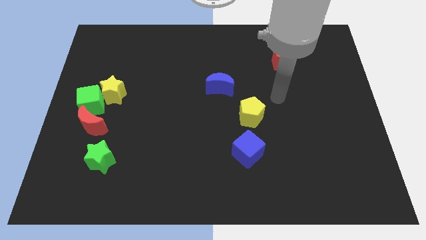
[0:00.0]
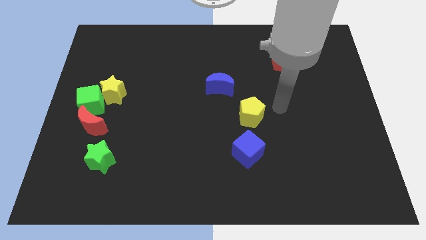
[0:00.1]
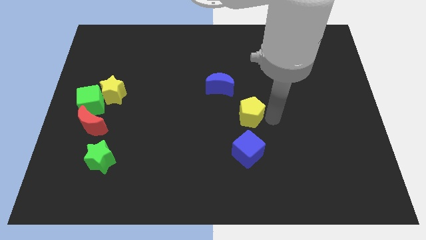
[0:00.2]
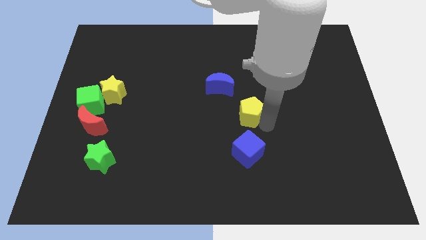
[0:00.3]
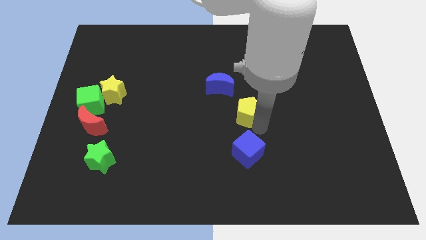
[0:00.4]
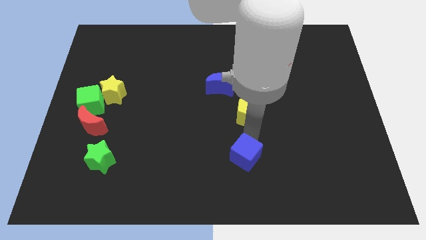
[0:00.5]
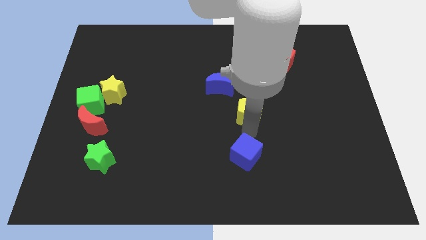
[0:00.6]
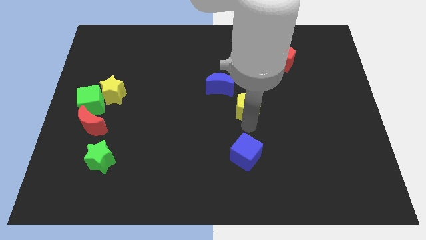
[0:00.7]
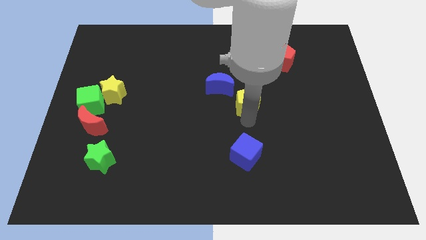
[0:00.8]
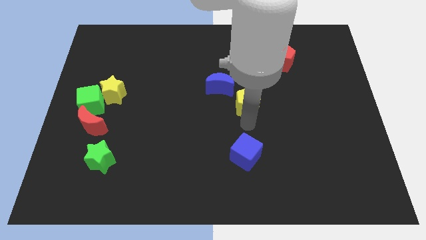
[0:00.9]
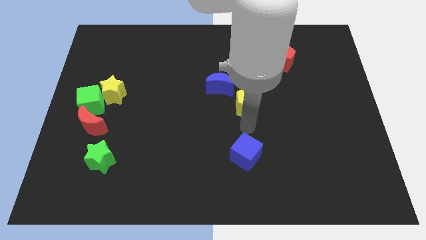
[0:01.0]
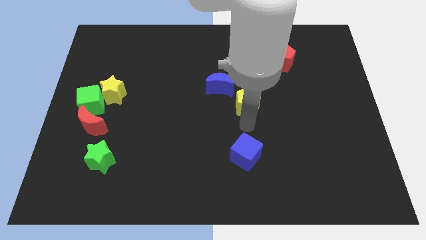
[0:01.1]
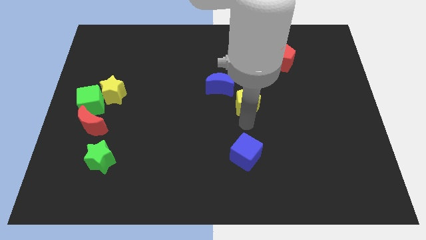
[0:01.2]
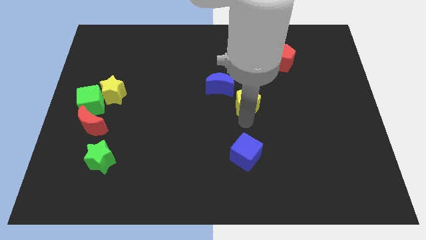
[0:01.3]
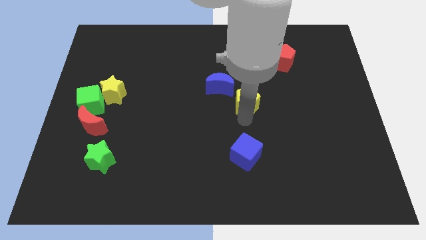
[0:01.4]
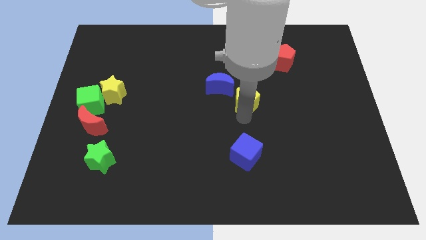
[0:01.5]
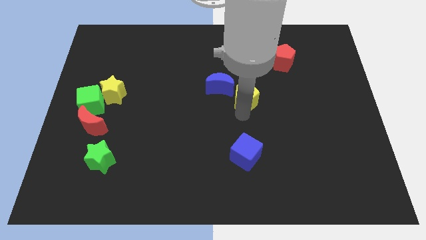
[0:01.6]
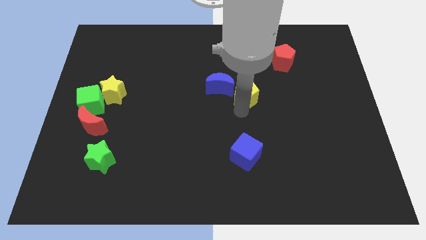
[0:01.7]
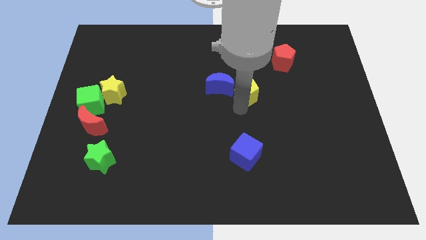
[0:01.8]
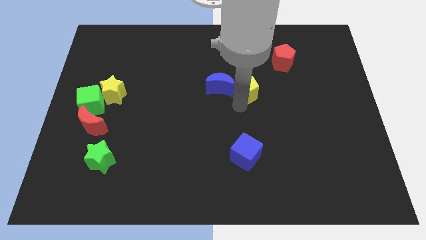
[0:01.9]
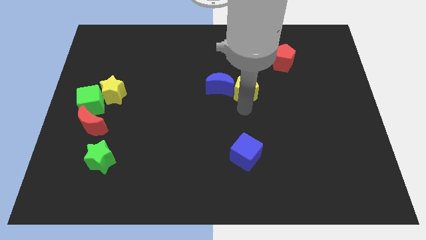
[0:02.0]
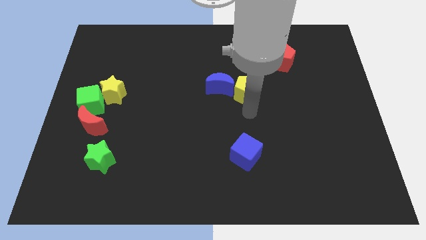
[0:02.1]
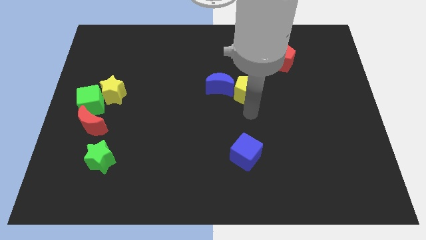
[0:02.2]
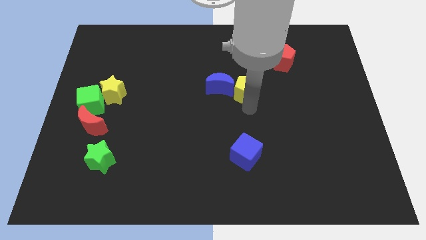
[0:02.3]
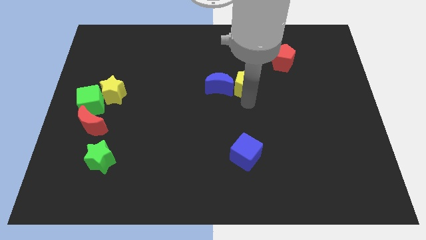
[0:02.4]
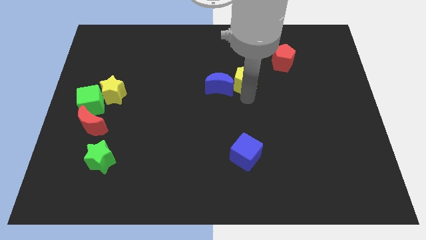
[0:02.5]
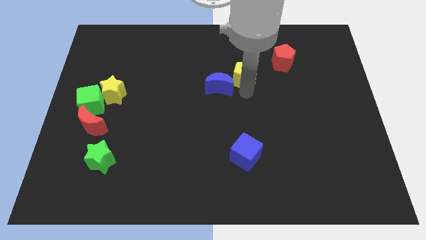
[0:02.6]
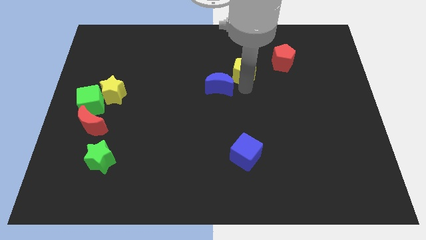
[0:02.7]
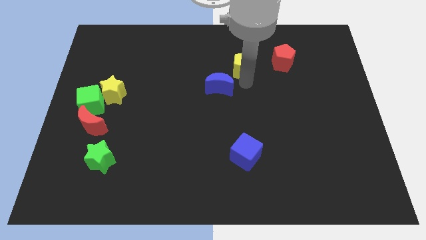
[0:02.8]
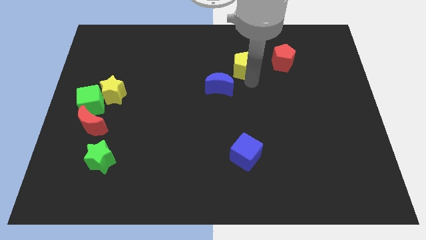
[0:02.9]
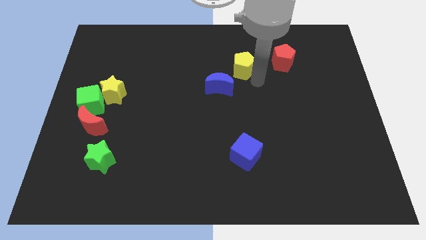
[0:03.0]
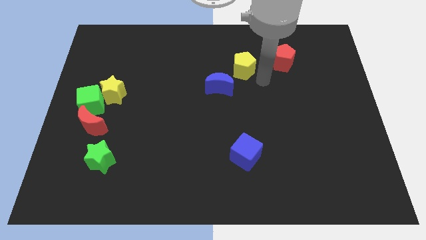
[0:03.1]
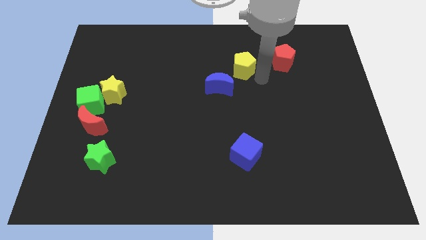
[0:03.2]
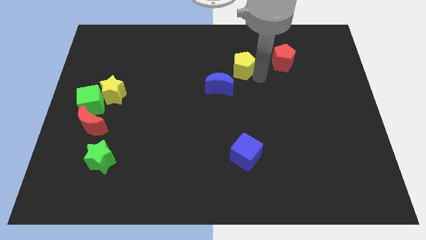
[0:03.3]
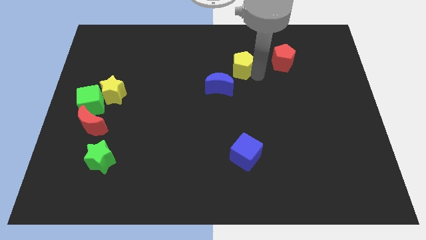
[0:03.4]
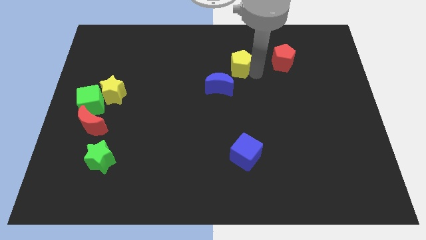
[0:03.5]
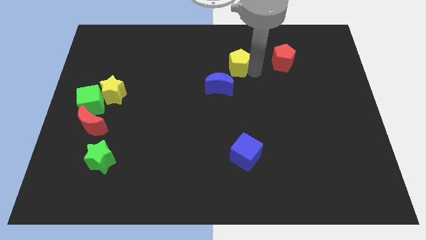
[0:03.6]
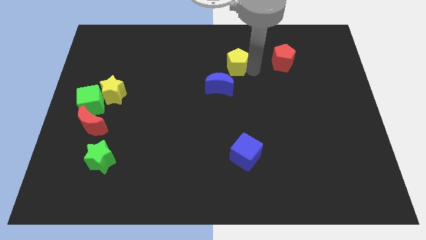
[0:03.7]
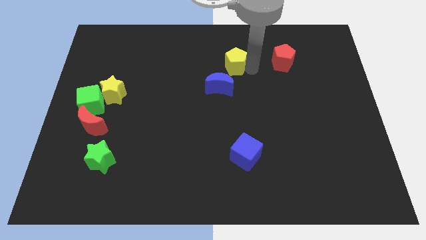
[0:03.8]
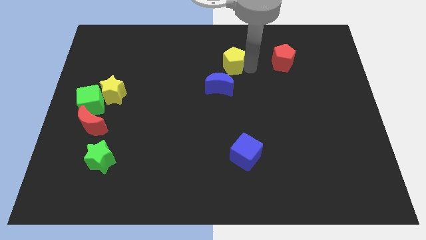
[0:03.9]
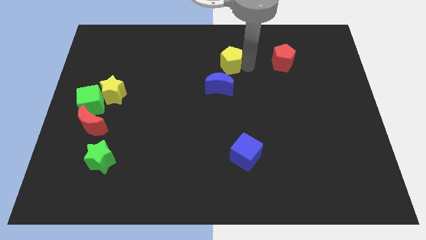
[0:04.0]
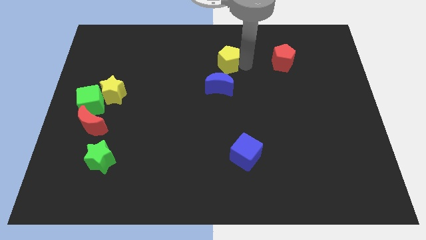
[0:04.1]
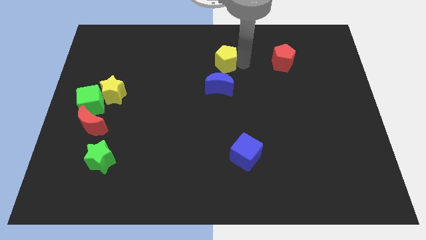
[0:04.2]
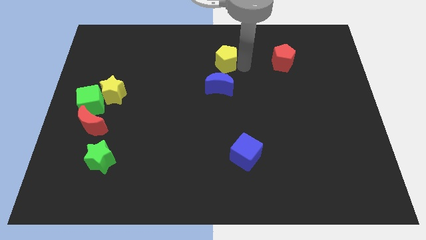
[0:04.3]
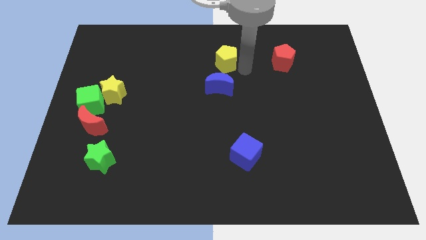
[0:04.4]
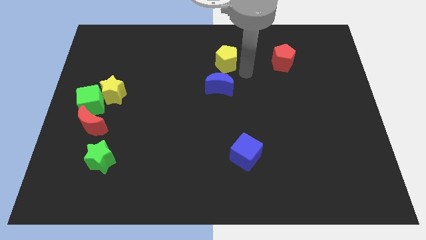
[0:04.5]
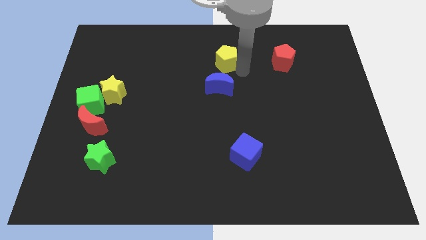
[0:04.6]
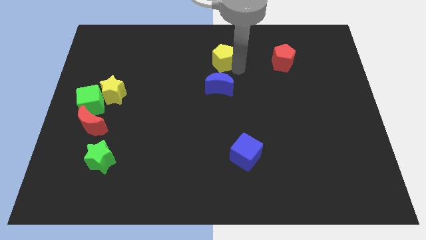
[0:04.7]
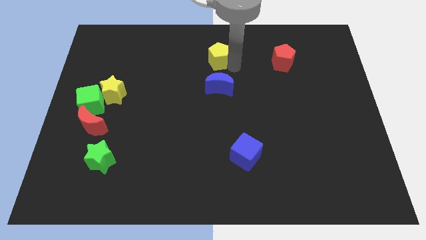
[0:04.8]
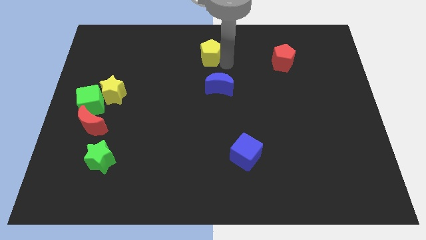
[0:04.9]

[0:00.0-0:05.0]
put the yellow pentagon to the top

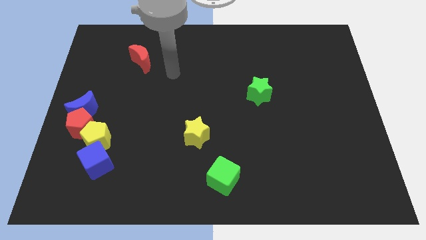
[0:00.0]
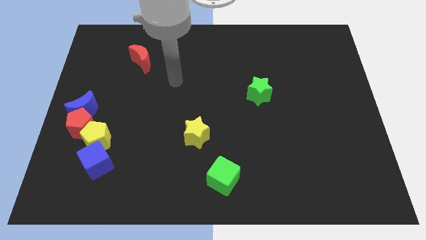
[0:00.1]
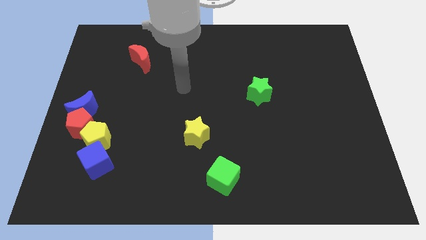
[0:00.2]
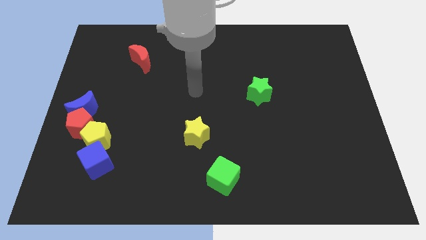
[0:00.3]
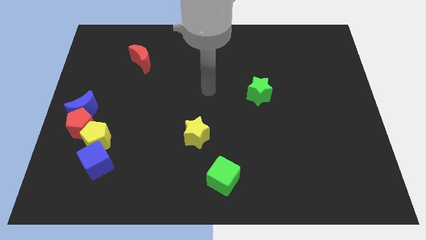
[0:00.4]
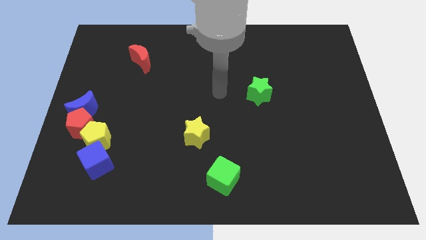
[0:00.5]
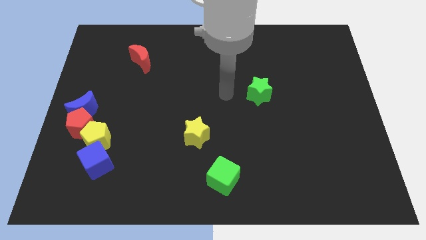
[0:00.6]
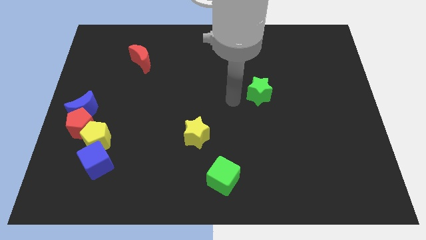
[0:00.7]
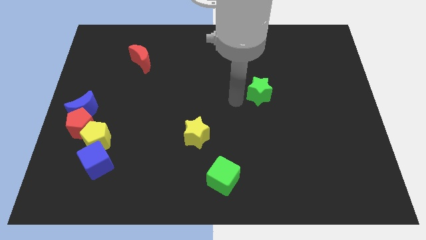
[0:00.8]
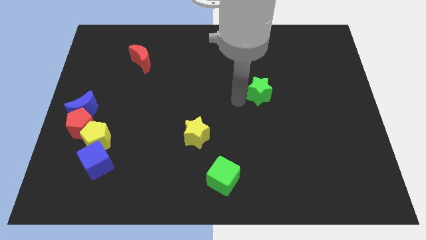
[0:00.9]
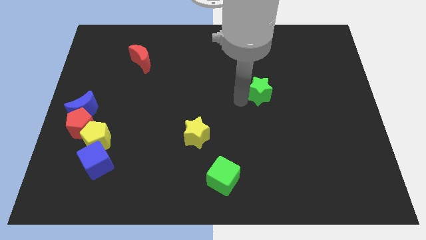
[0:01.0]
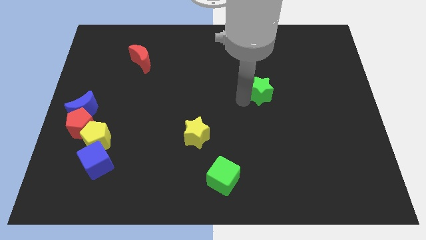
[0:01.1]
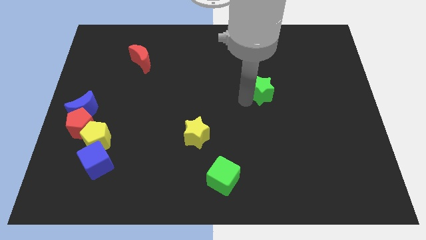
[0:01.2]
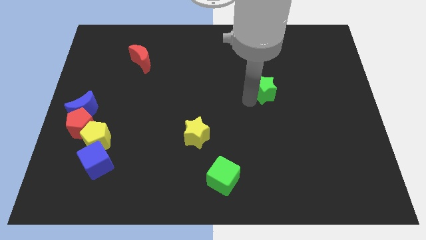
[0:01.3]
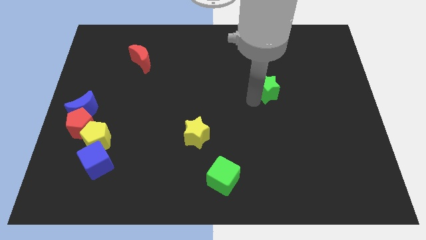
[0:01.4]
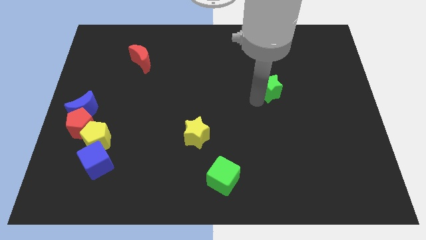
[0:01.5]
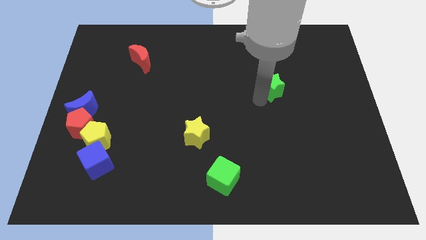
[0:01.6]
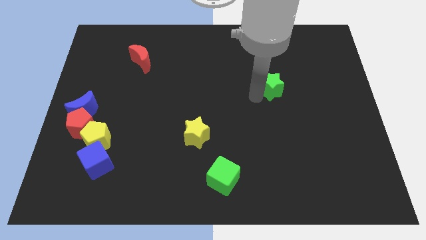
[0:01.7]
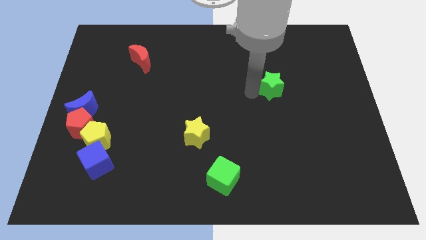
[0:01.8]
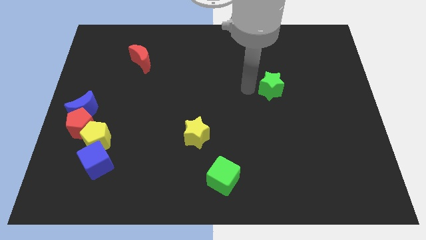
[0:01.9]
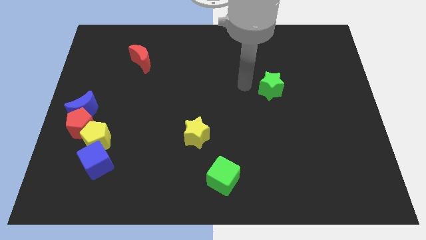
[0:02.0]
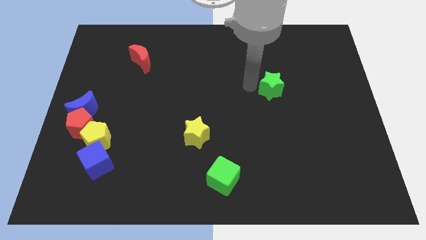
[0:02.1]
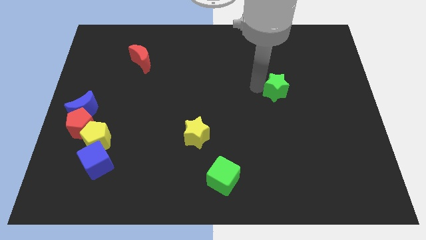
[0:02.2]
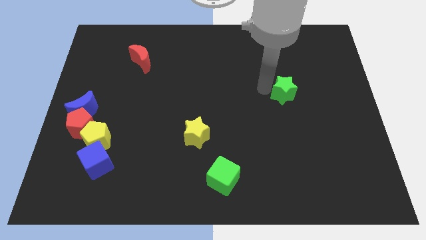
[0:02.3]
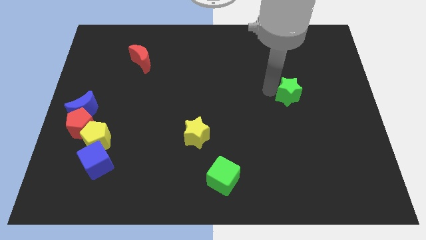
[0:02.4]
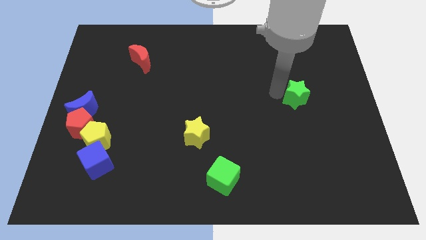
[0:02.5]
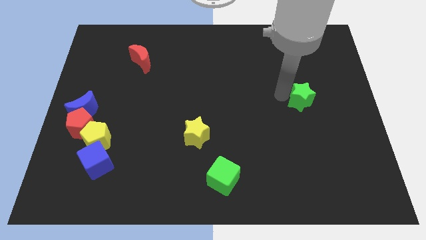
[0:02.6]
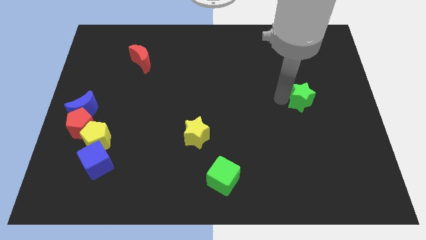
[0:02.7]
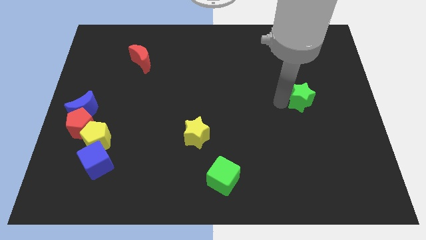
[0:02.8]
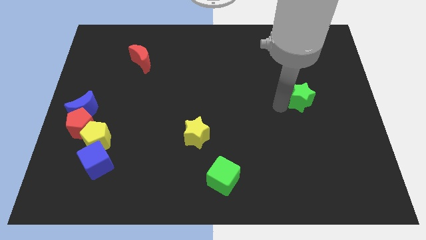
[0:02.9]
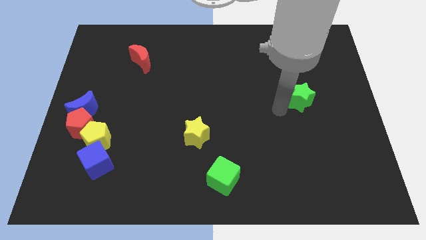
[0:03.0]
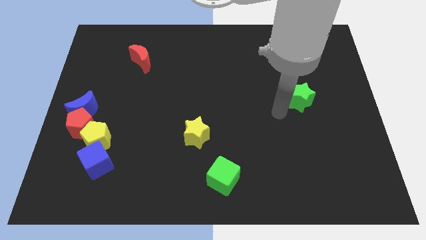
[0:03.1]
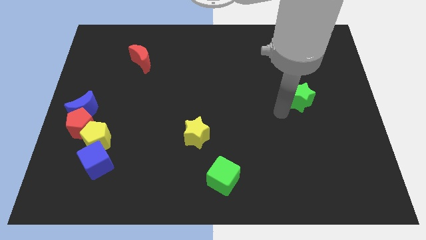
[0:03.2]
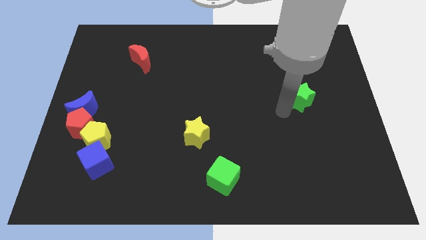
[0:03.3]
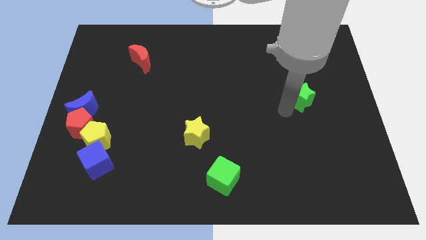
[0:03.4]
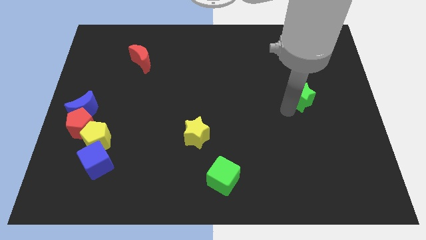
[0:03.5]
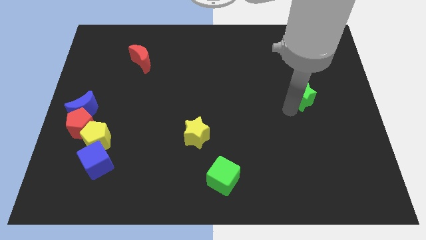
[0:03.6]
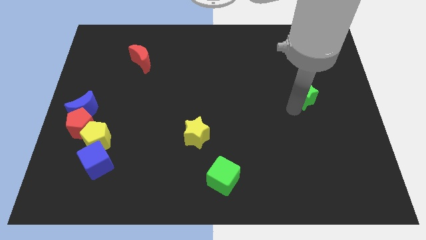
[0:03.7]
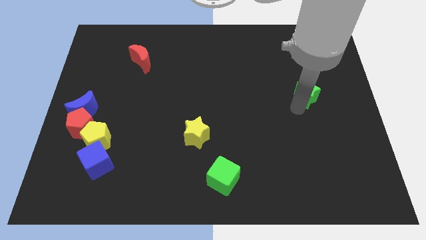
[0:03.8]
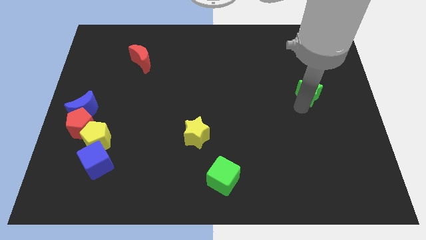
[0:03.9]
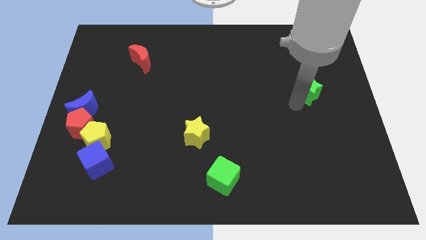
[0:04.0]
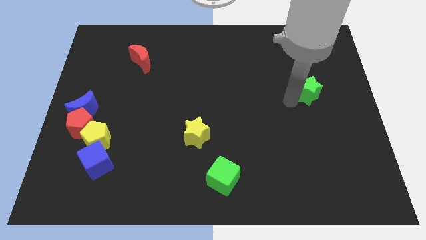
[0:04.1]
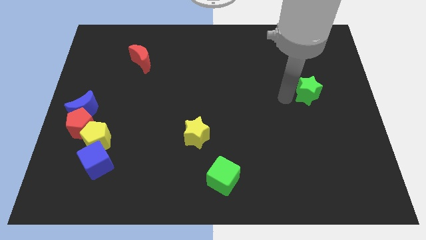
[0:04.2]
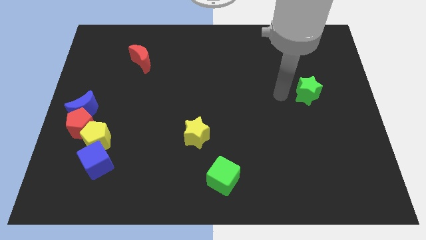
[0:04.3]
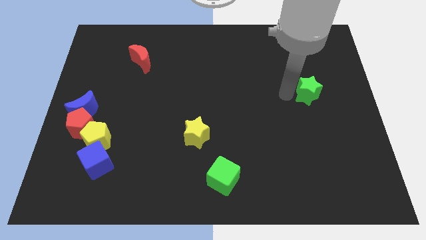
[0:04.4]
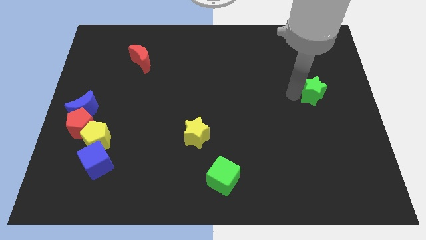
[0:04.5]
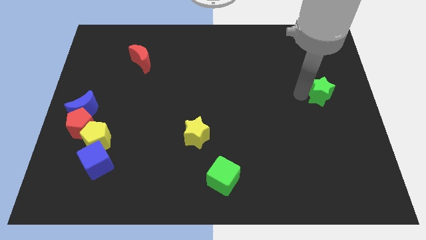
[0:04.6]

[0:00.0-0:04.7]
move the green star to the right side of the board
